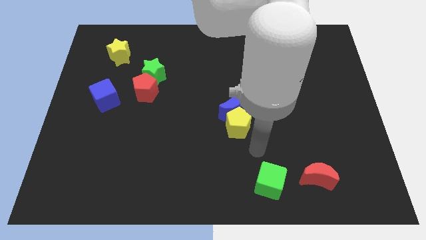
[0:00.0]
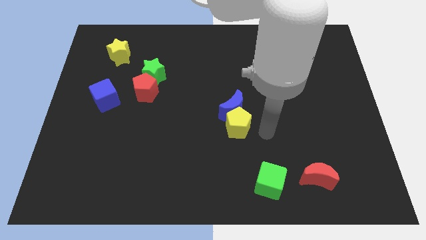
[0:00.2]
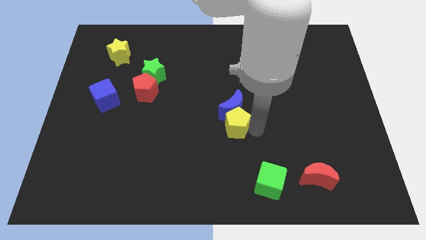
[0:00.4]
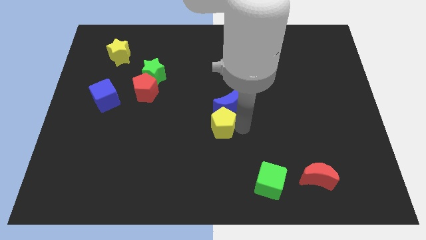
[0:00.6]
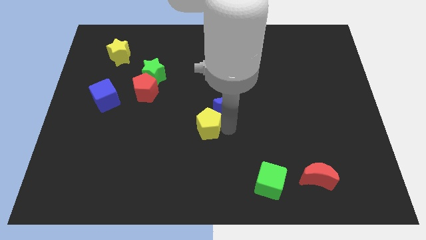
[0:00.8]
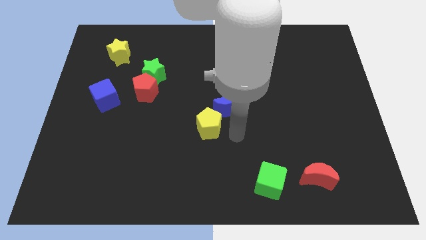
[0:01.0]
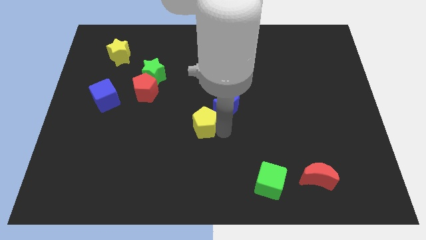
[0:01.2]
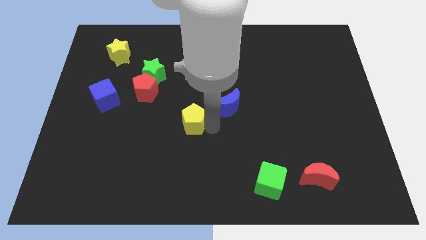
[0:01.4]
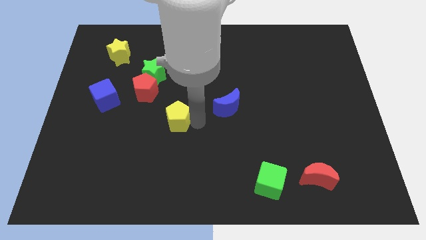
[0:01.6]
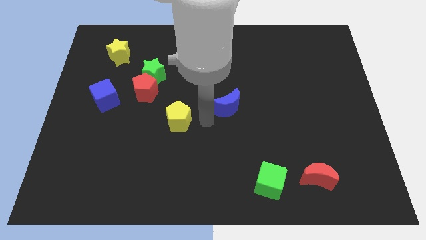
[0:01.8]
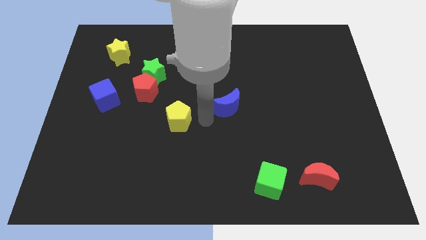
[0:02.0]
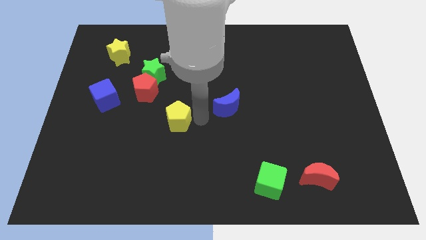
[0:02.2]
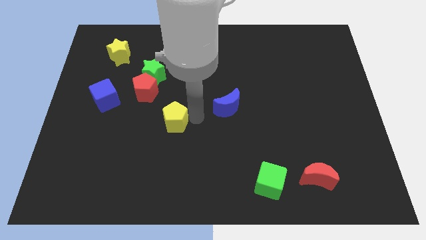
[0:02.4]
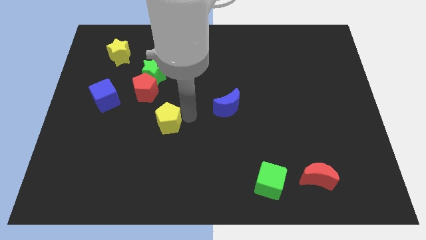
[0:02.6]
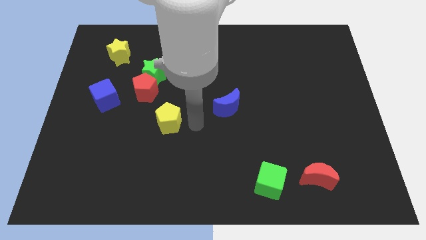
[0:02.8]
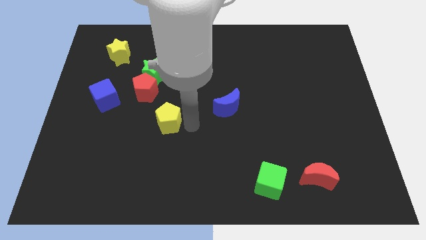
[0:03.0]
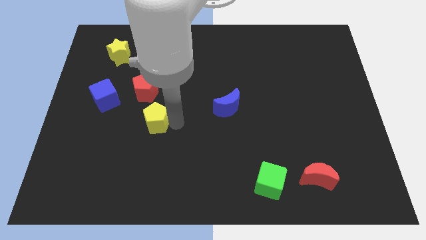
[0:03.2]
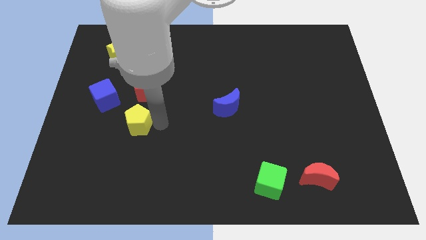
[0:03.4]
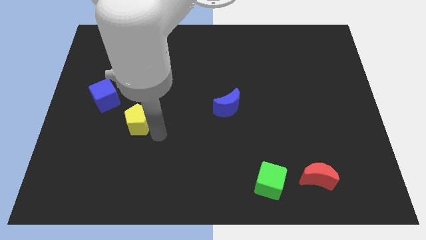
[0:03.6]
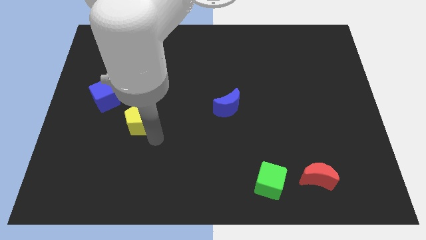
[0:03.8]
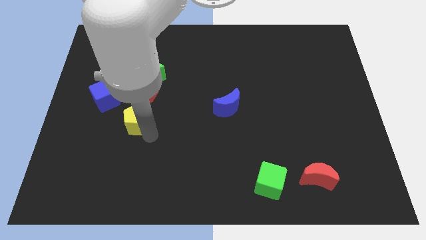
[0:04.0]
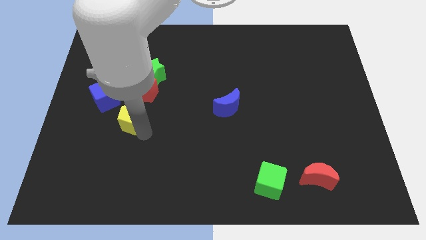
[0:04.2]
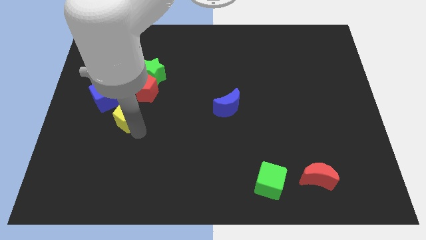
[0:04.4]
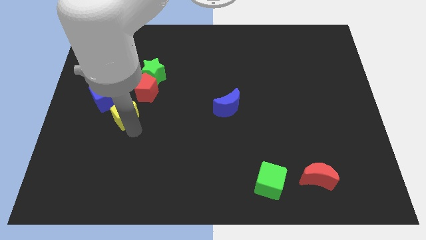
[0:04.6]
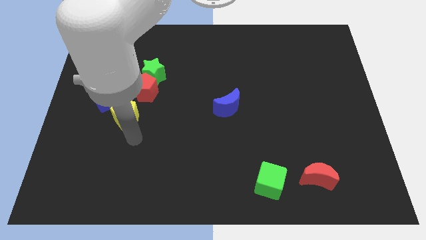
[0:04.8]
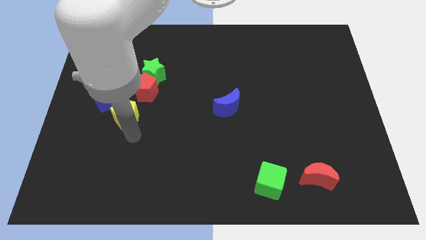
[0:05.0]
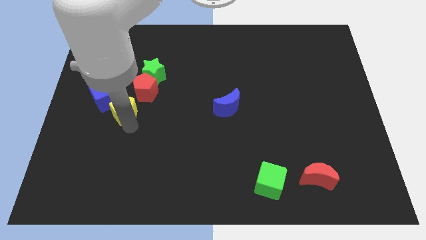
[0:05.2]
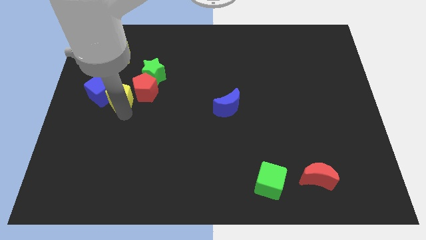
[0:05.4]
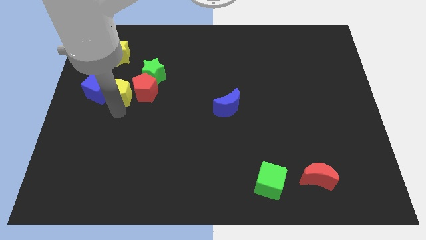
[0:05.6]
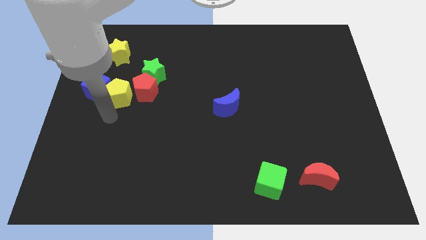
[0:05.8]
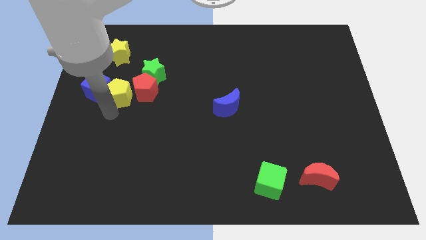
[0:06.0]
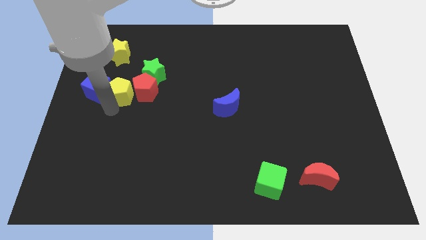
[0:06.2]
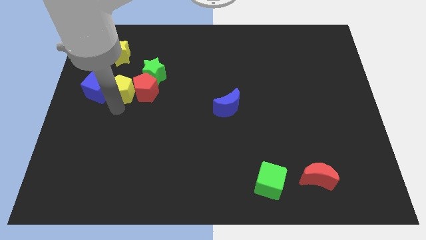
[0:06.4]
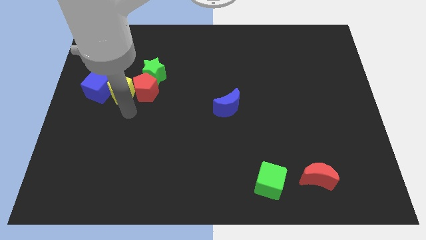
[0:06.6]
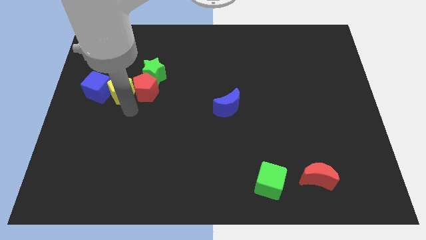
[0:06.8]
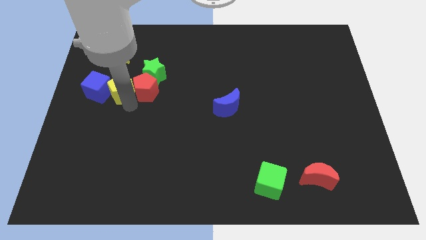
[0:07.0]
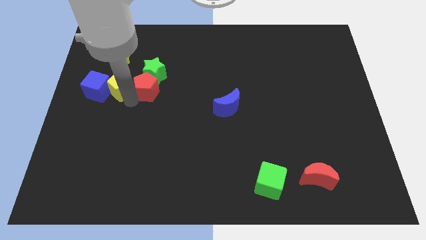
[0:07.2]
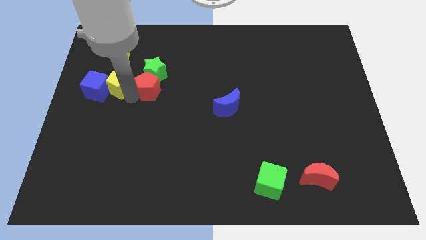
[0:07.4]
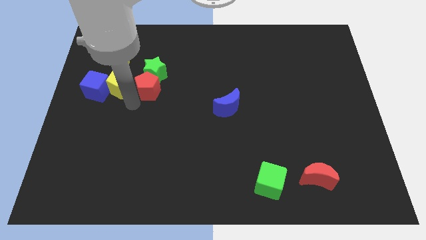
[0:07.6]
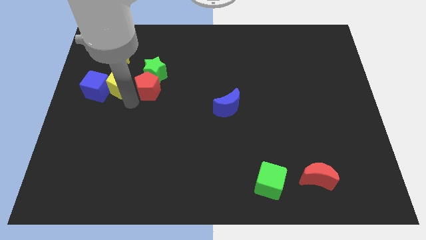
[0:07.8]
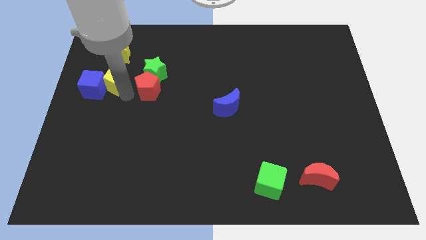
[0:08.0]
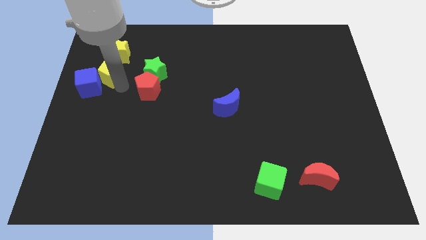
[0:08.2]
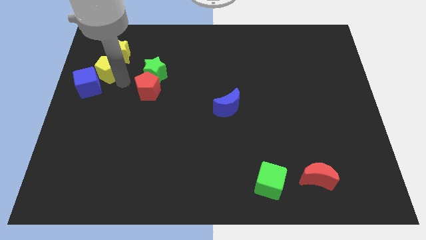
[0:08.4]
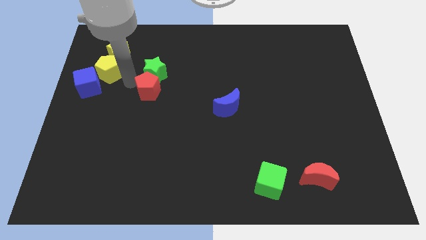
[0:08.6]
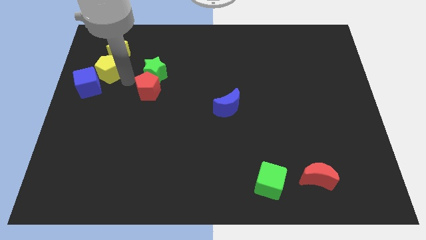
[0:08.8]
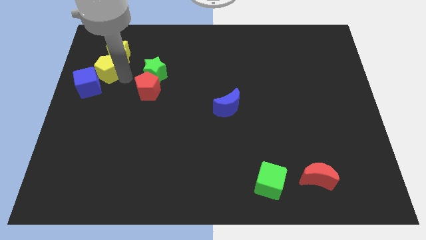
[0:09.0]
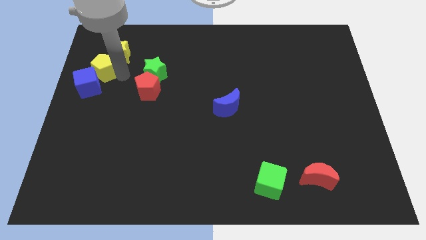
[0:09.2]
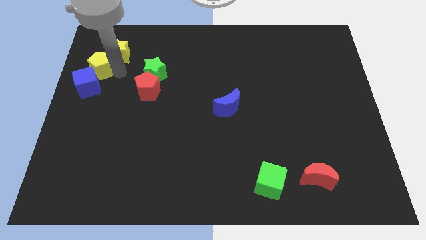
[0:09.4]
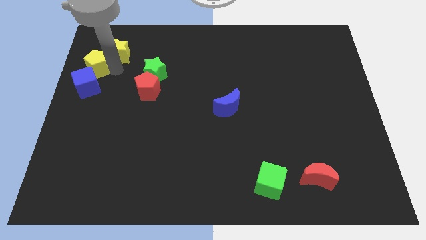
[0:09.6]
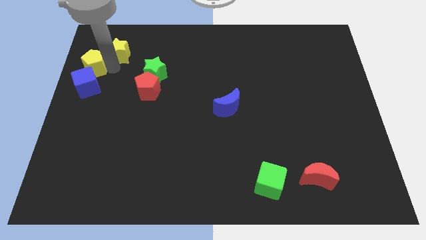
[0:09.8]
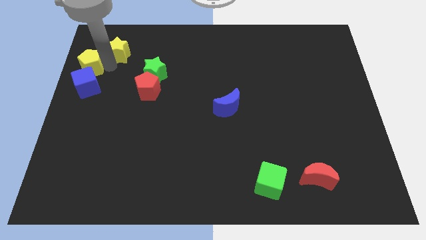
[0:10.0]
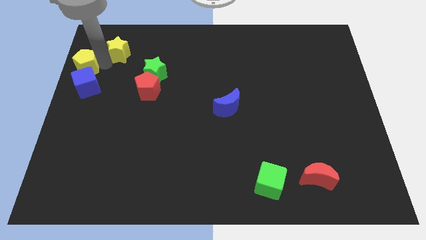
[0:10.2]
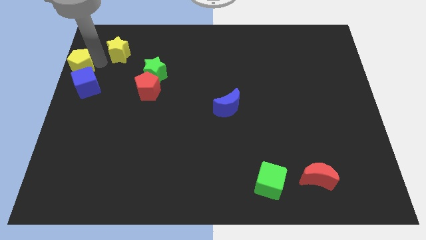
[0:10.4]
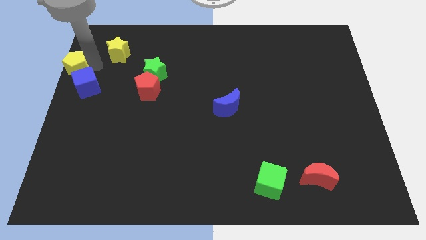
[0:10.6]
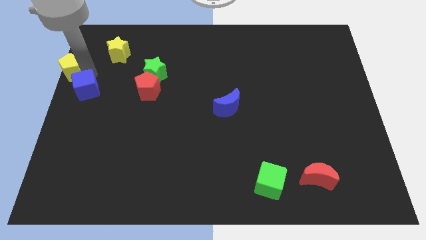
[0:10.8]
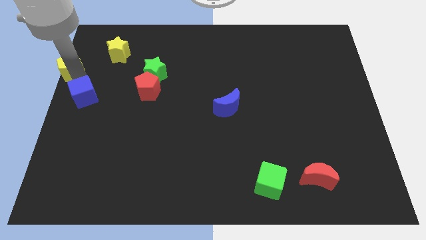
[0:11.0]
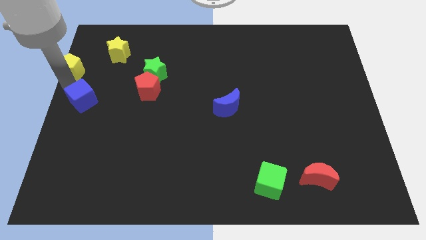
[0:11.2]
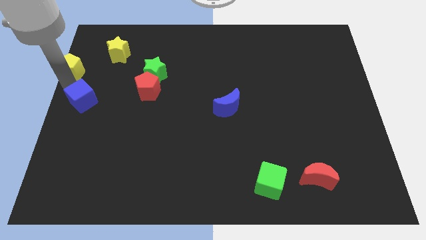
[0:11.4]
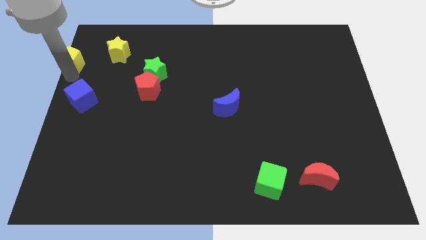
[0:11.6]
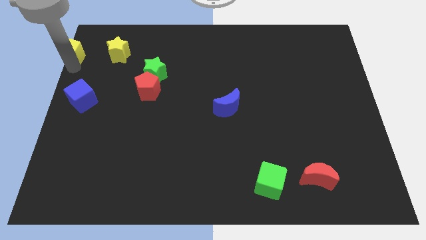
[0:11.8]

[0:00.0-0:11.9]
put the yellow pentagon to the top left of the board
